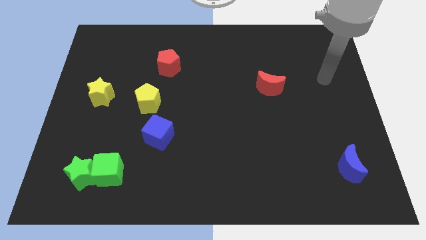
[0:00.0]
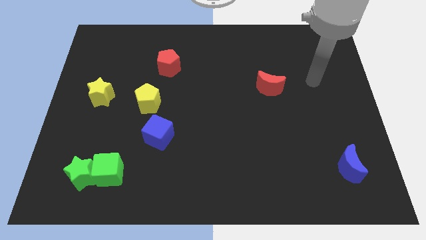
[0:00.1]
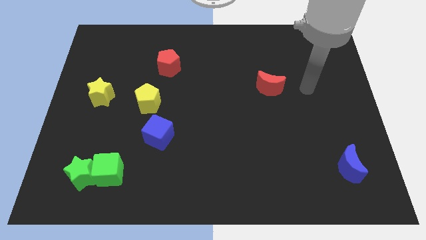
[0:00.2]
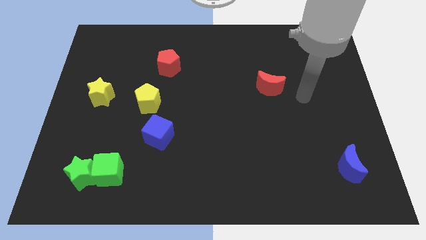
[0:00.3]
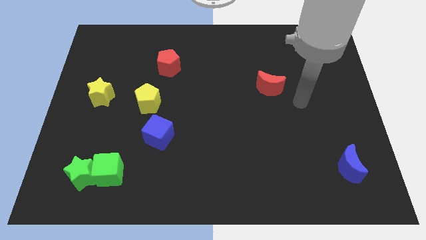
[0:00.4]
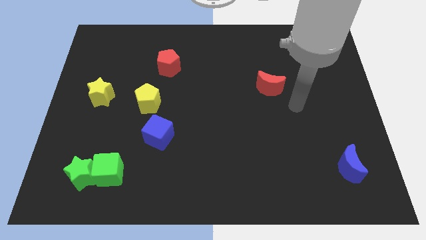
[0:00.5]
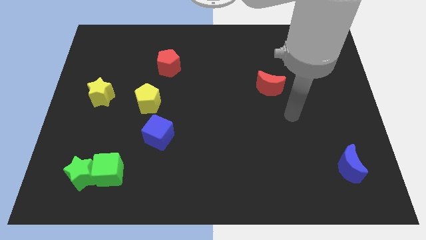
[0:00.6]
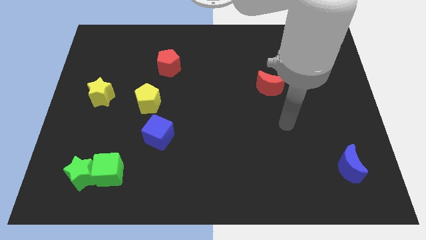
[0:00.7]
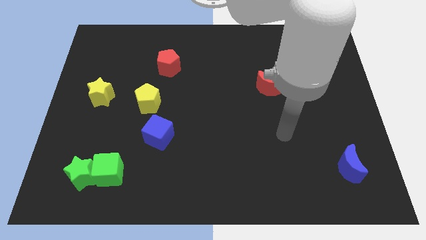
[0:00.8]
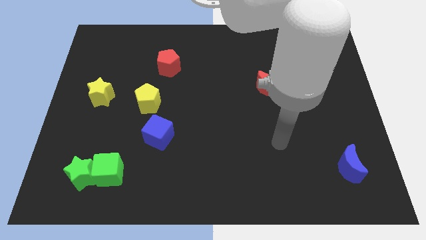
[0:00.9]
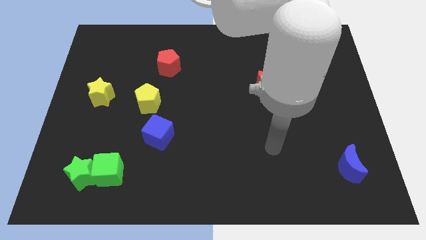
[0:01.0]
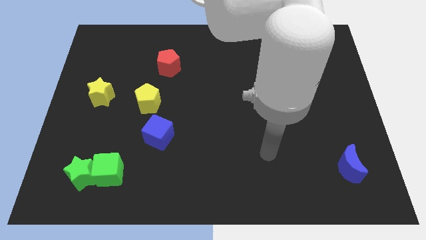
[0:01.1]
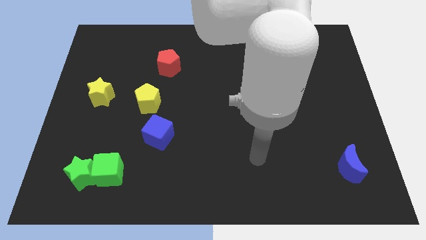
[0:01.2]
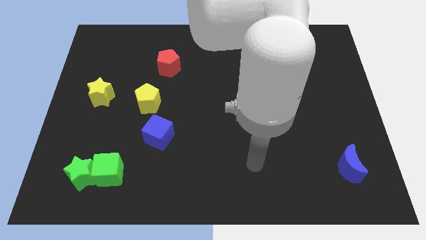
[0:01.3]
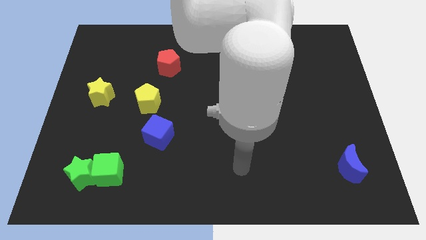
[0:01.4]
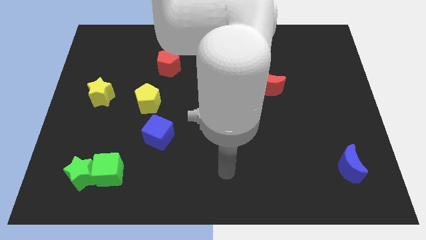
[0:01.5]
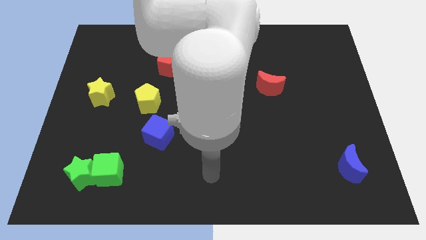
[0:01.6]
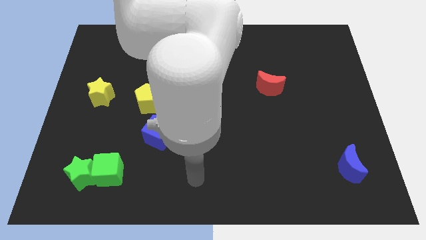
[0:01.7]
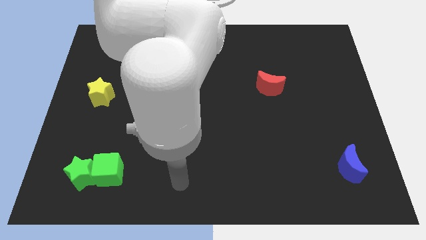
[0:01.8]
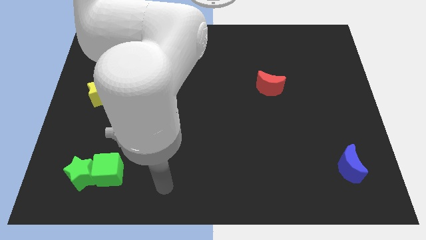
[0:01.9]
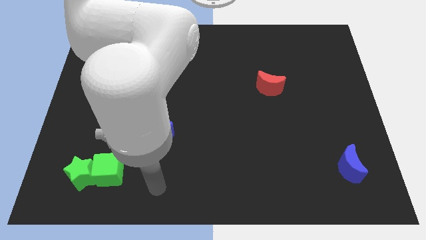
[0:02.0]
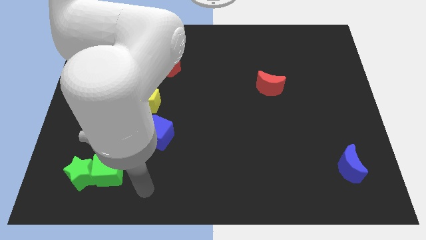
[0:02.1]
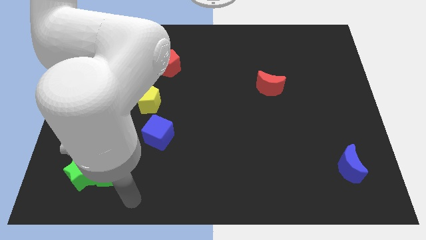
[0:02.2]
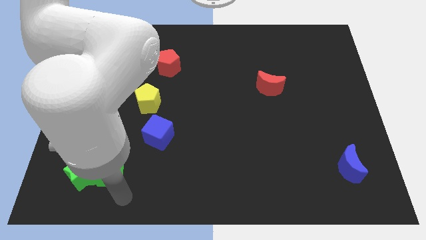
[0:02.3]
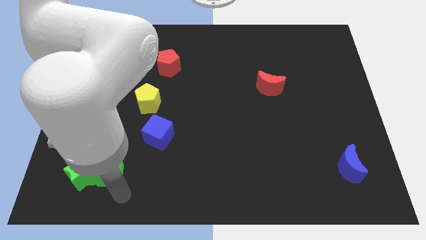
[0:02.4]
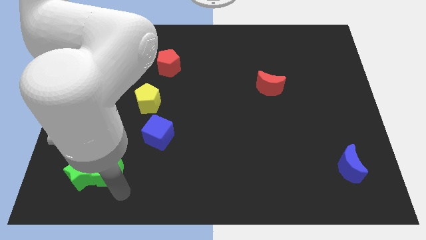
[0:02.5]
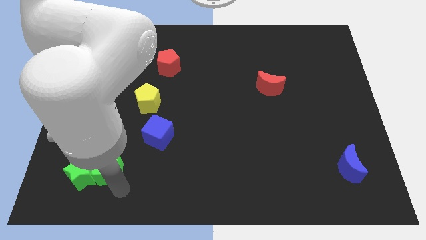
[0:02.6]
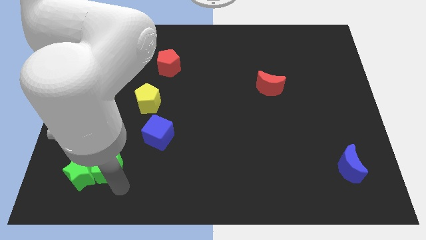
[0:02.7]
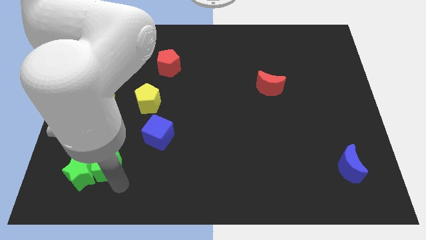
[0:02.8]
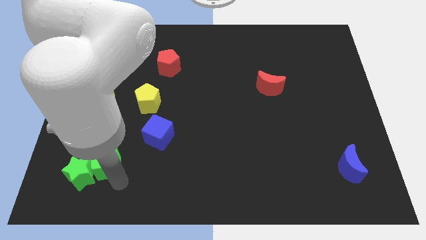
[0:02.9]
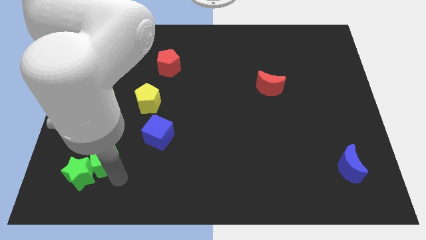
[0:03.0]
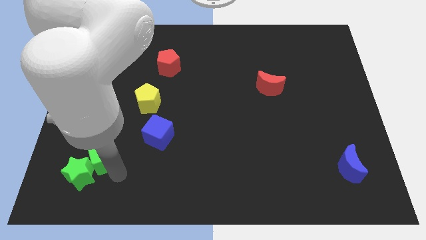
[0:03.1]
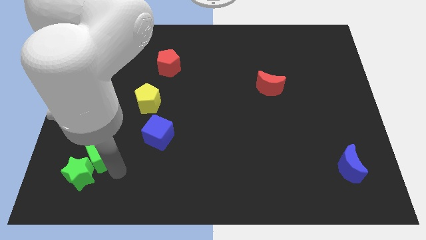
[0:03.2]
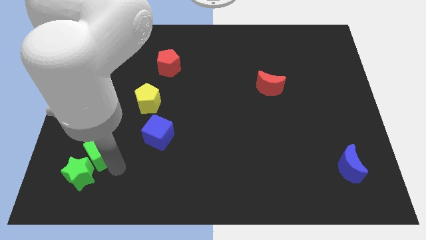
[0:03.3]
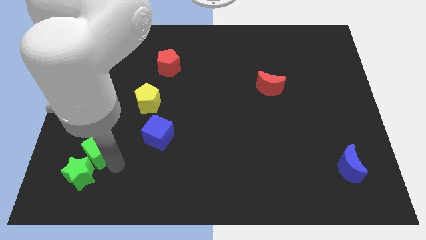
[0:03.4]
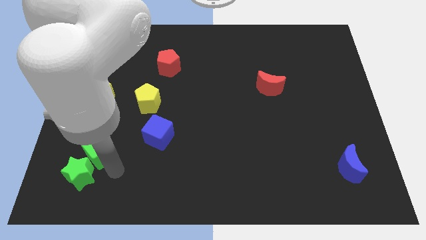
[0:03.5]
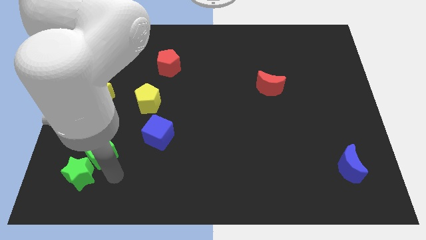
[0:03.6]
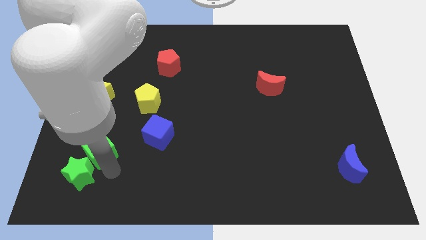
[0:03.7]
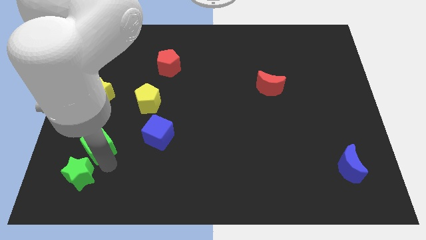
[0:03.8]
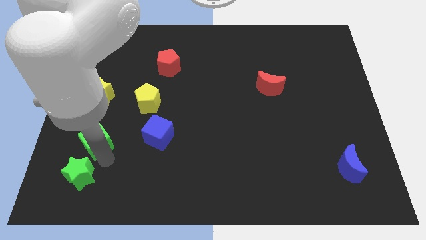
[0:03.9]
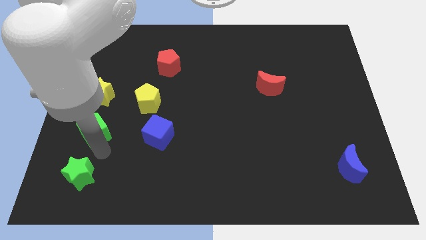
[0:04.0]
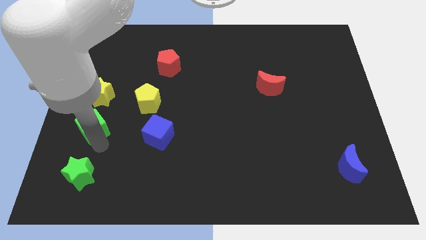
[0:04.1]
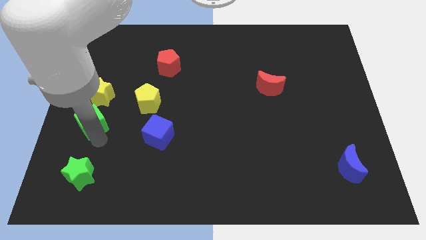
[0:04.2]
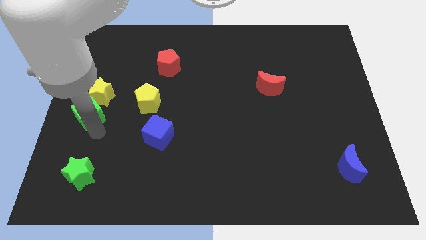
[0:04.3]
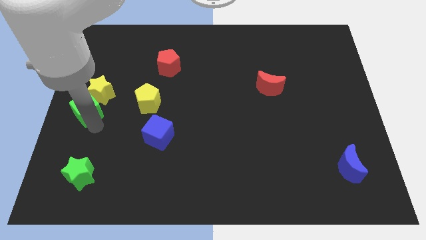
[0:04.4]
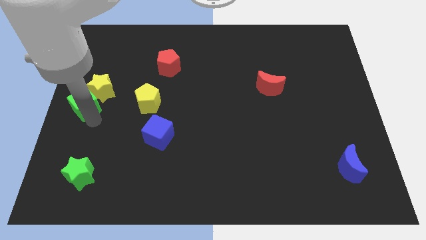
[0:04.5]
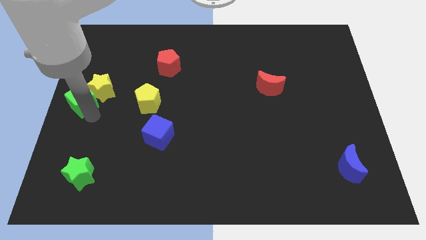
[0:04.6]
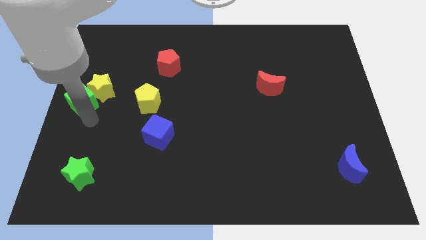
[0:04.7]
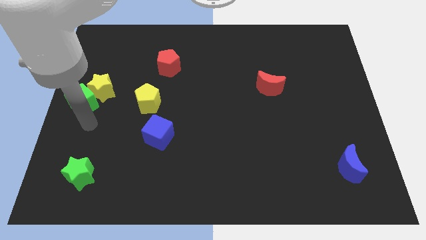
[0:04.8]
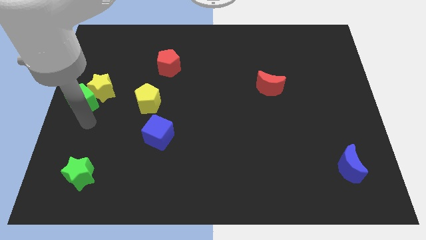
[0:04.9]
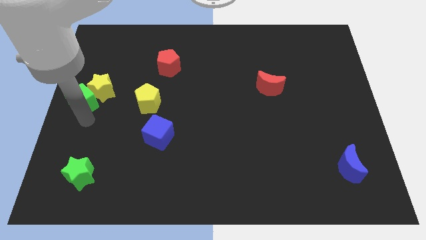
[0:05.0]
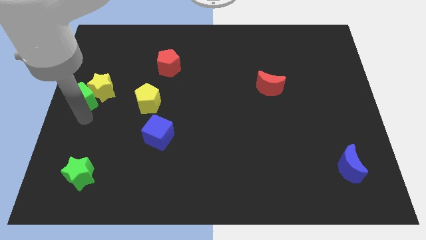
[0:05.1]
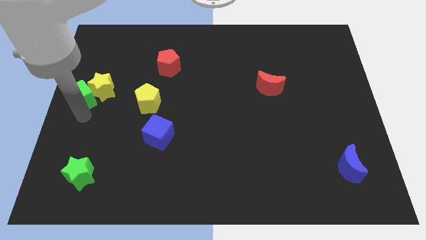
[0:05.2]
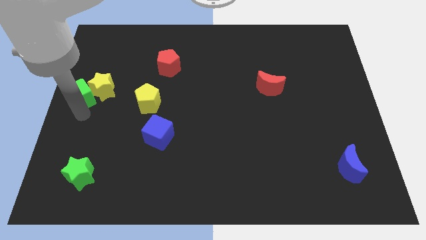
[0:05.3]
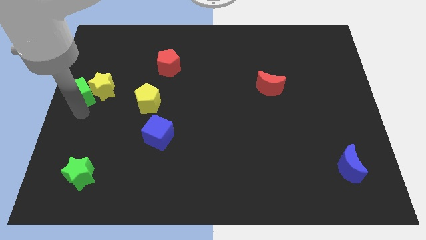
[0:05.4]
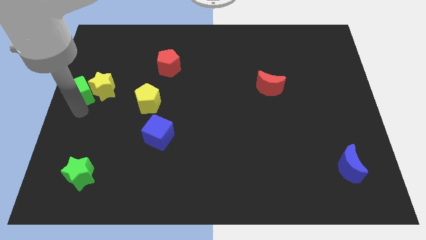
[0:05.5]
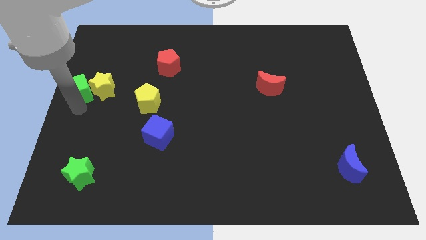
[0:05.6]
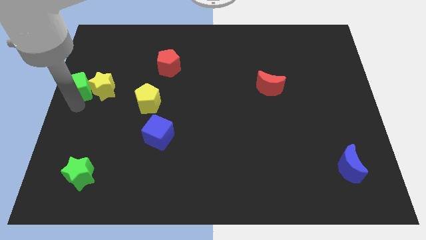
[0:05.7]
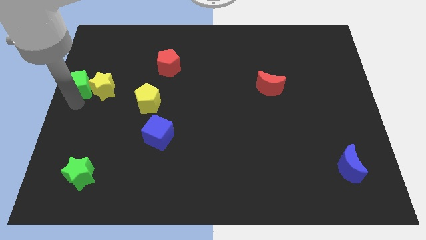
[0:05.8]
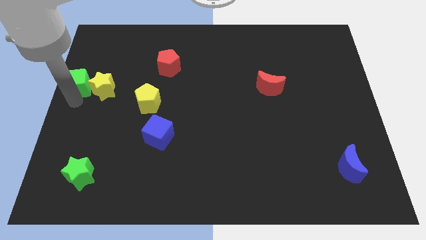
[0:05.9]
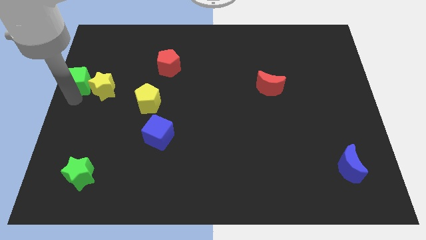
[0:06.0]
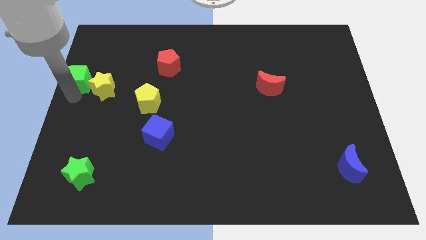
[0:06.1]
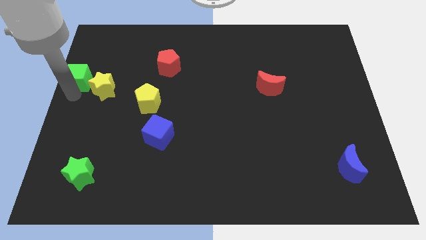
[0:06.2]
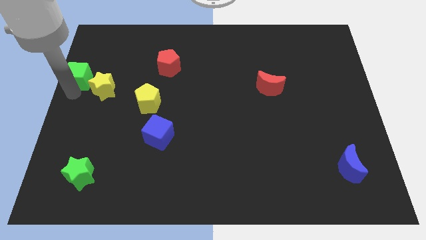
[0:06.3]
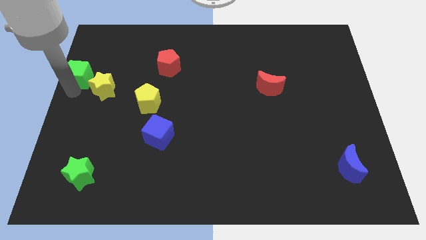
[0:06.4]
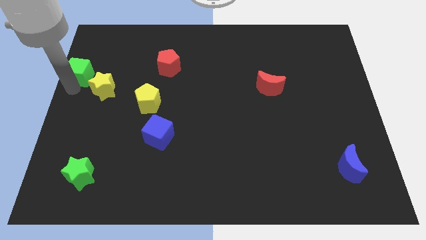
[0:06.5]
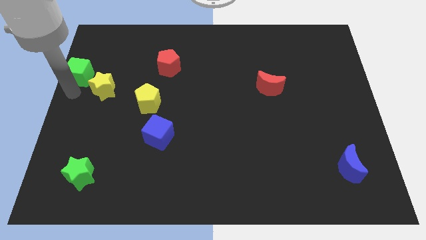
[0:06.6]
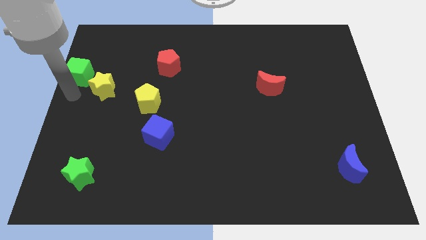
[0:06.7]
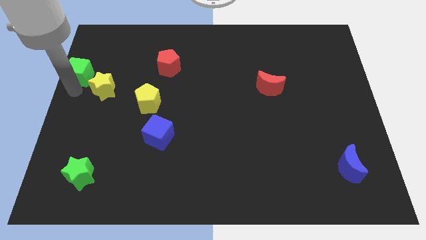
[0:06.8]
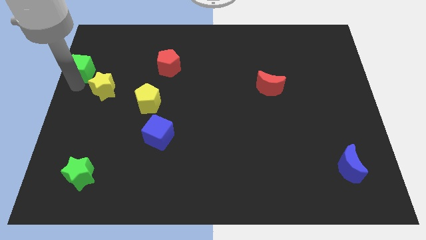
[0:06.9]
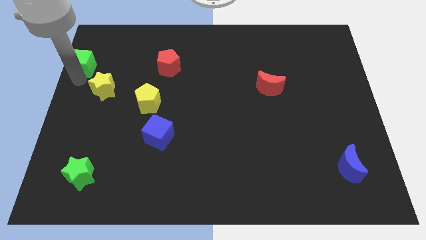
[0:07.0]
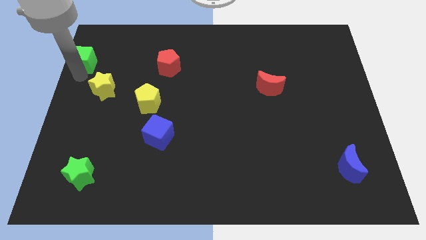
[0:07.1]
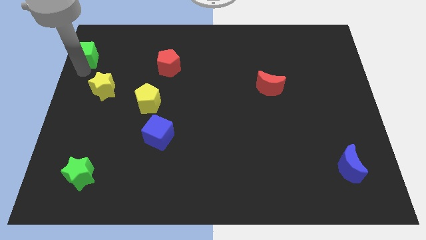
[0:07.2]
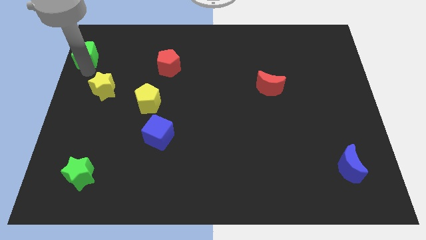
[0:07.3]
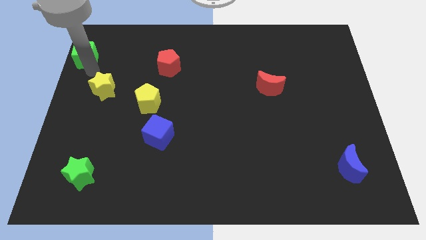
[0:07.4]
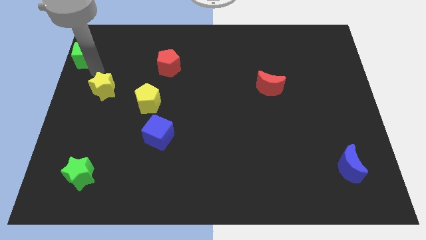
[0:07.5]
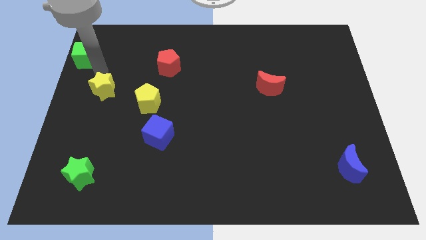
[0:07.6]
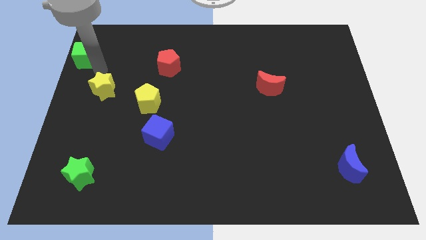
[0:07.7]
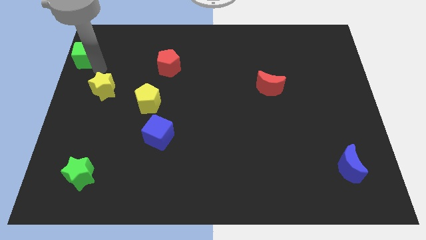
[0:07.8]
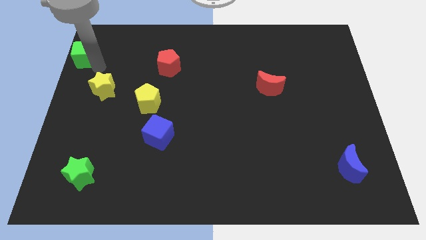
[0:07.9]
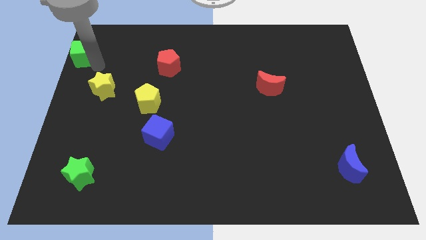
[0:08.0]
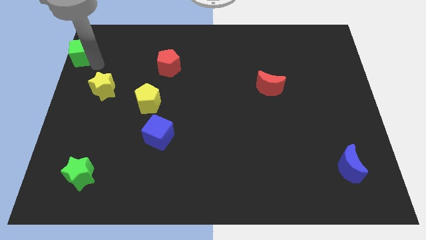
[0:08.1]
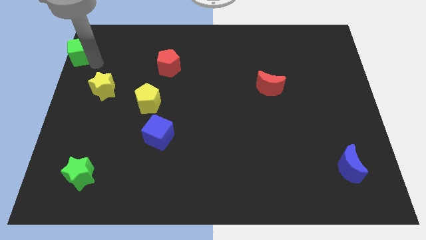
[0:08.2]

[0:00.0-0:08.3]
put the green cube to the top left corner
